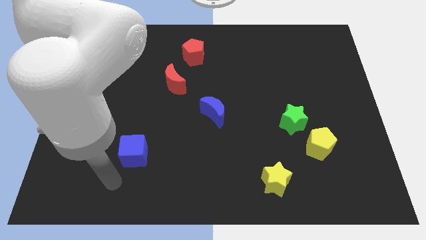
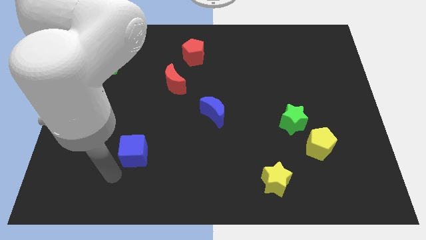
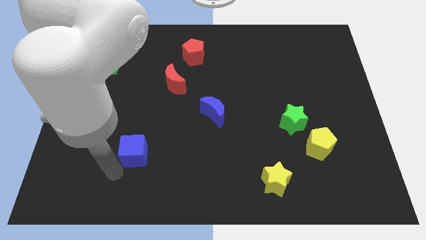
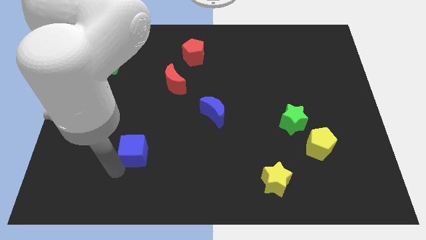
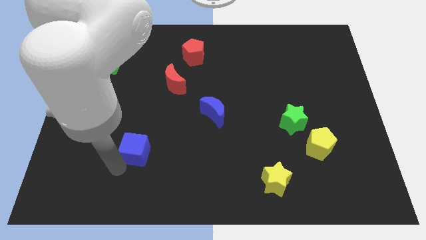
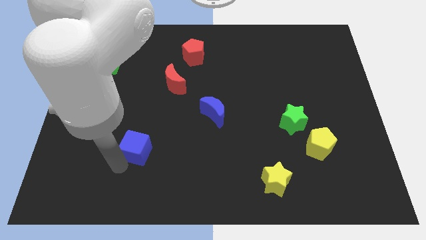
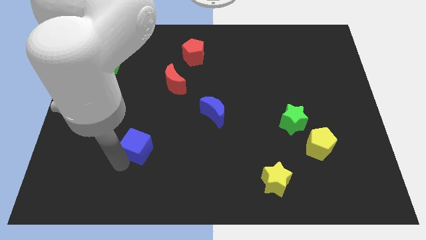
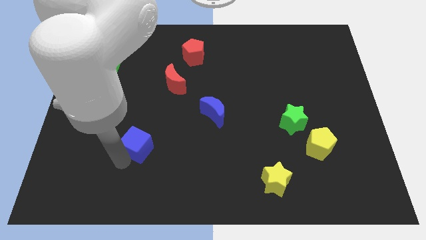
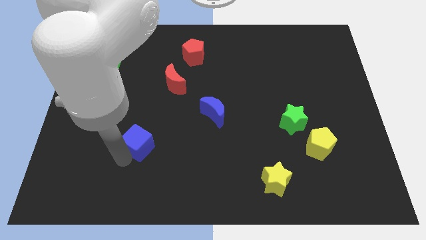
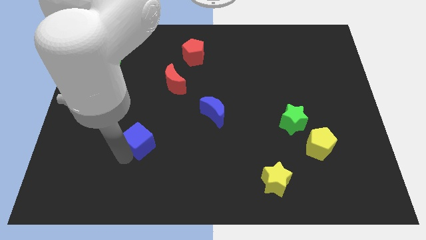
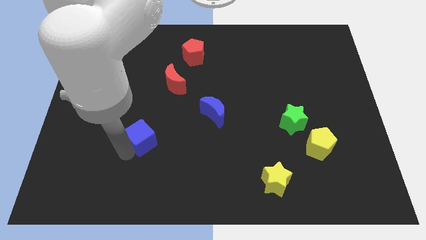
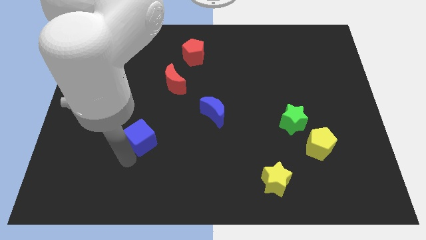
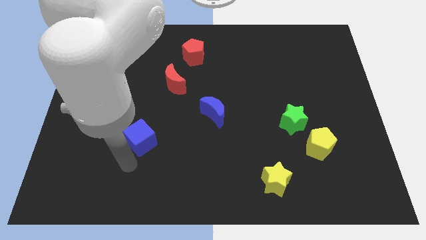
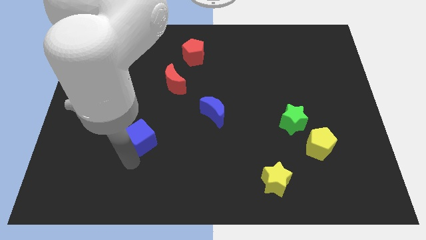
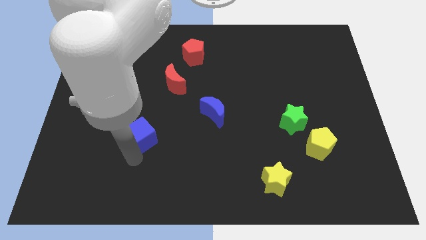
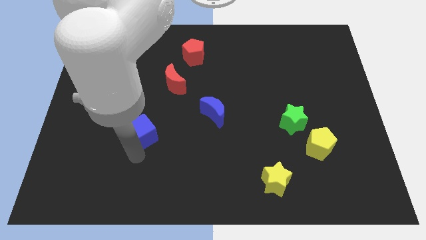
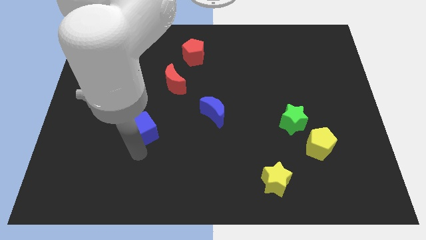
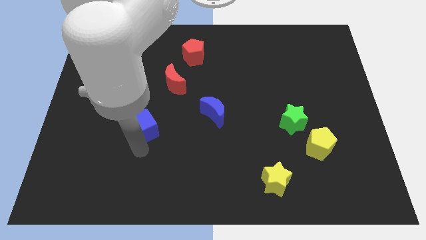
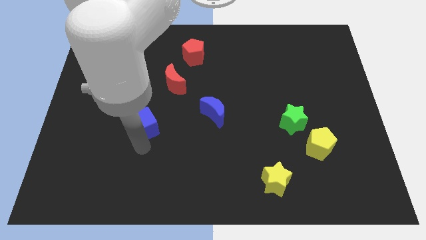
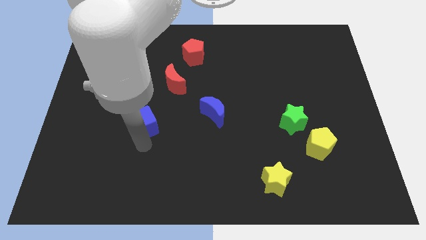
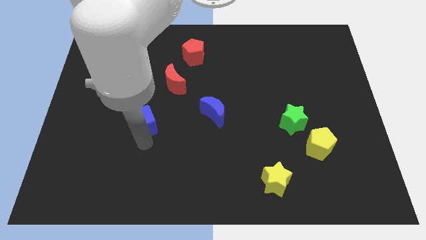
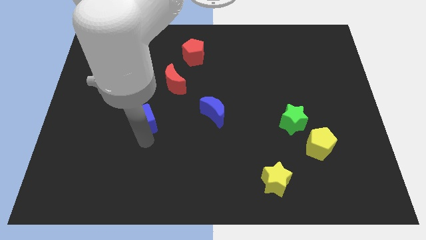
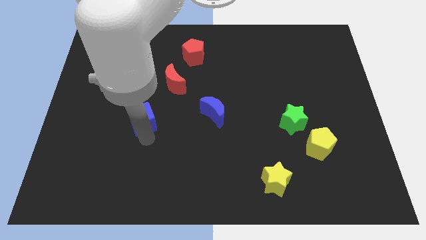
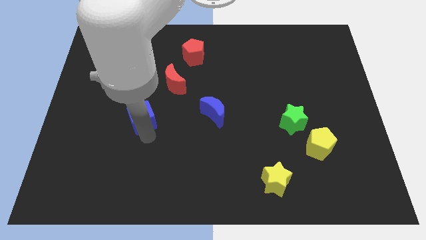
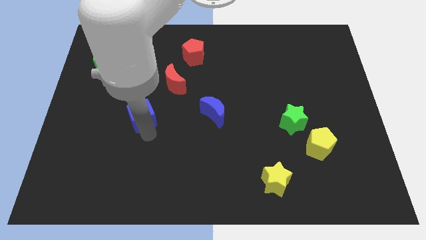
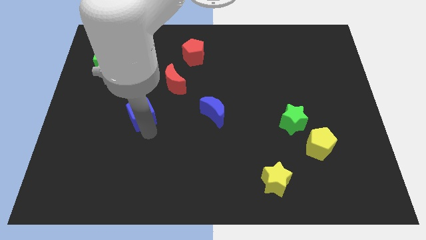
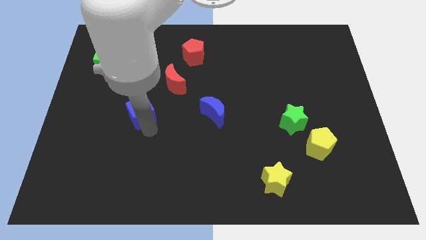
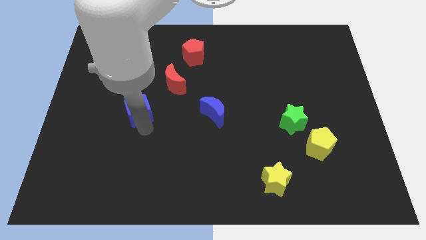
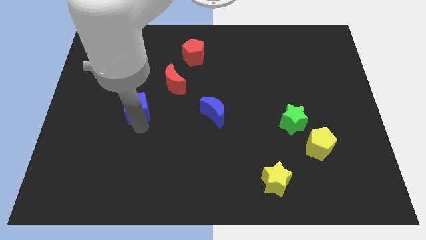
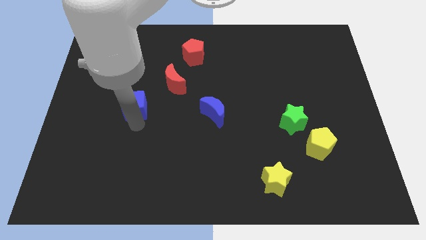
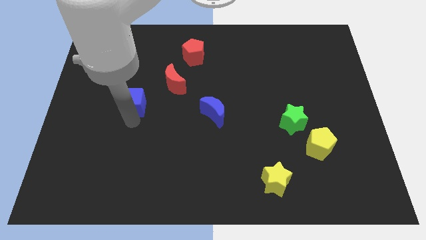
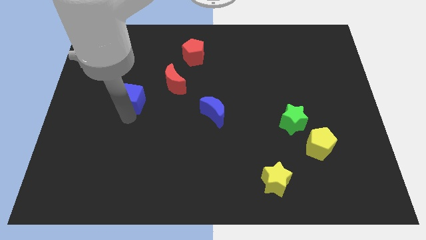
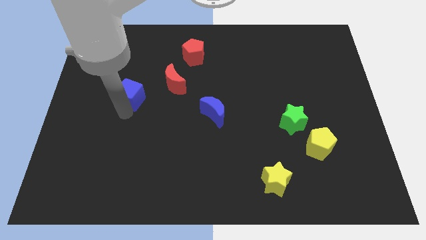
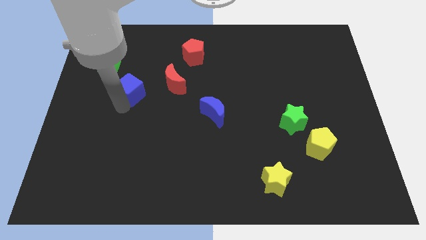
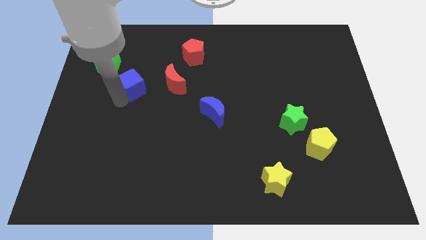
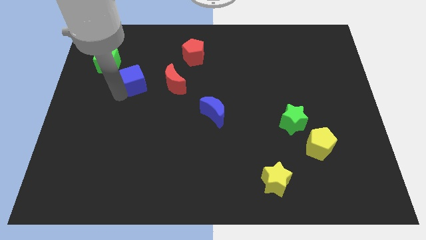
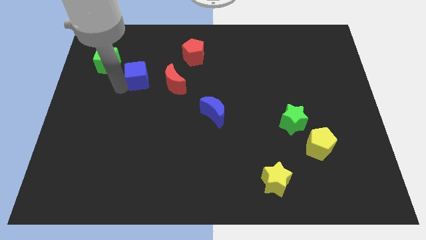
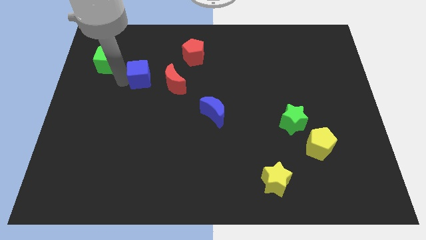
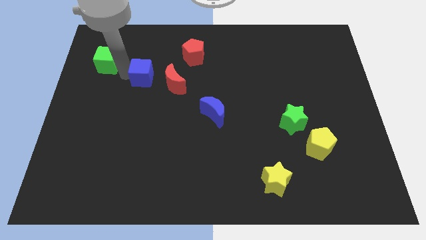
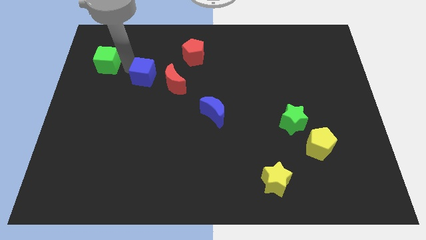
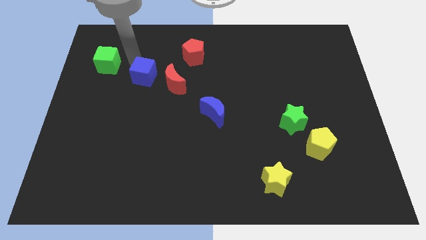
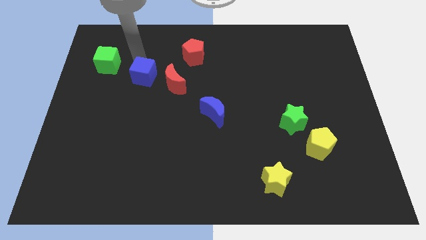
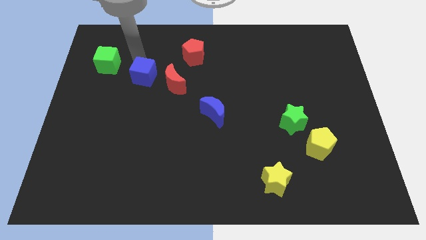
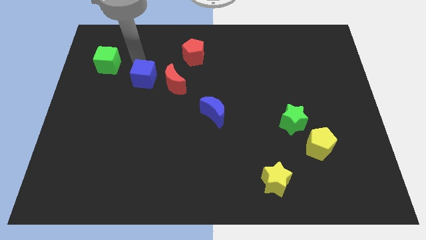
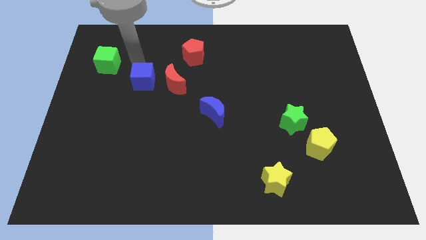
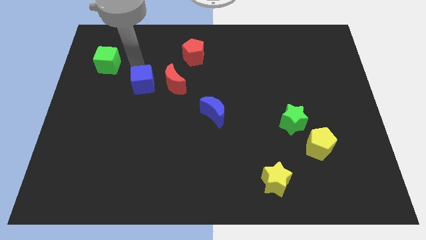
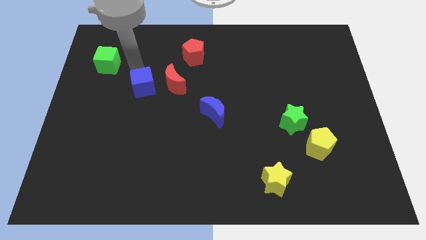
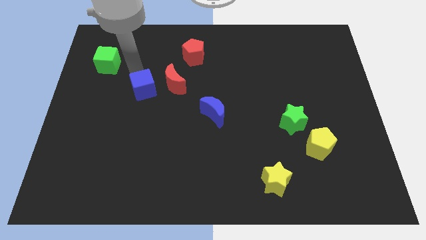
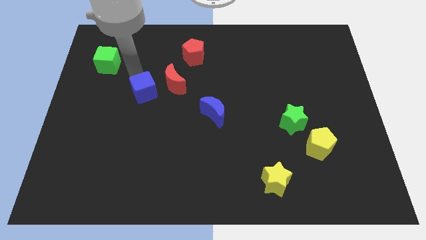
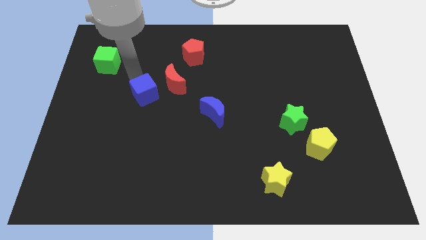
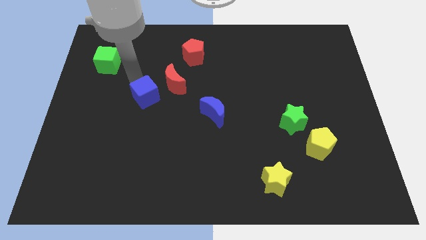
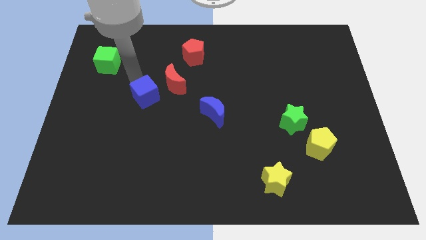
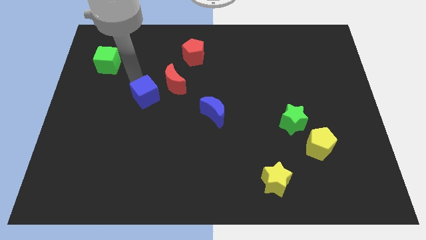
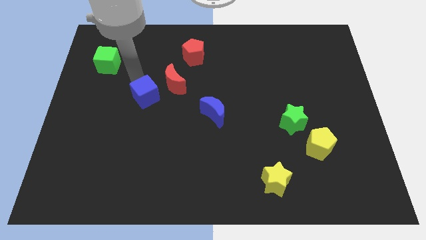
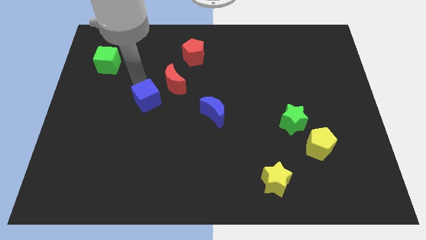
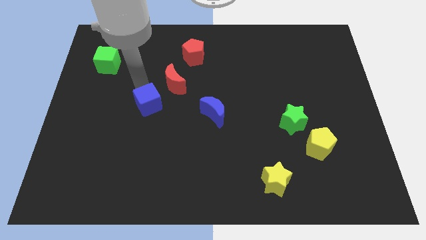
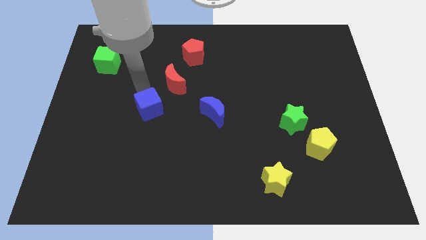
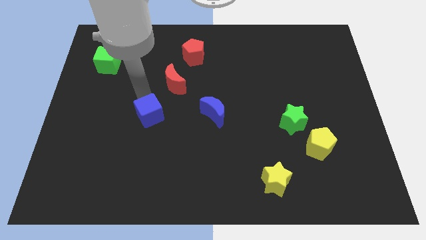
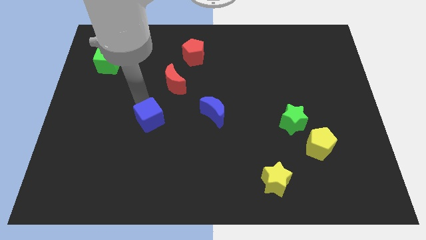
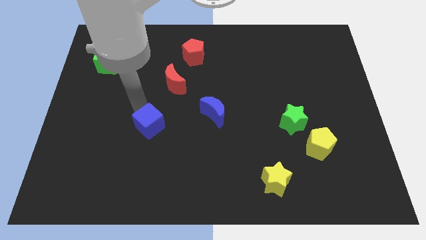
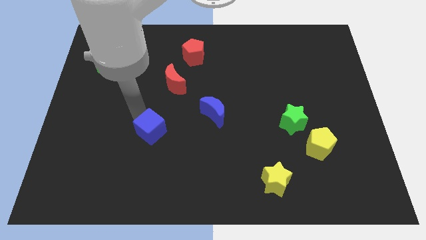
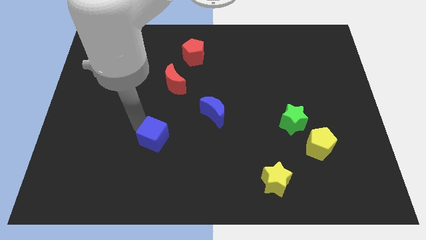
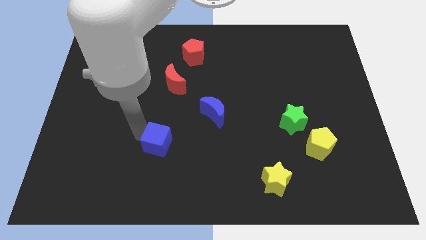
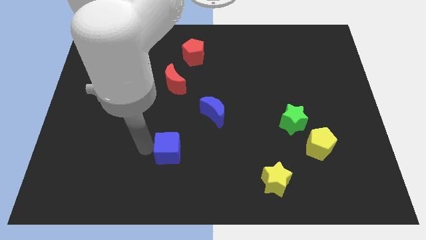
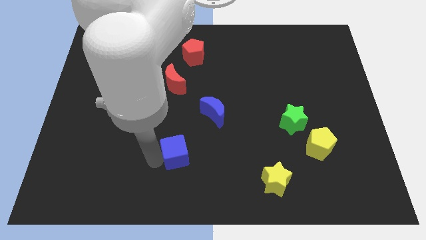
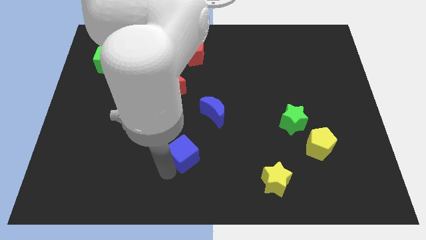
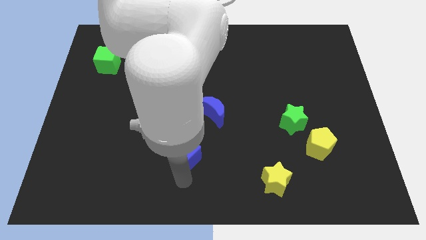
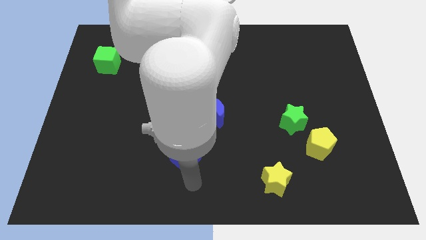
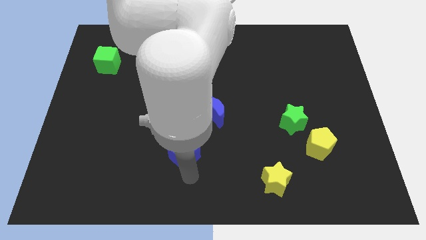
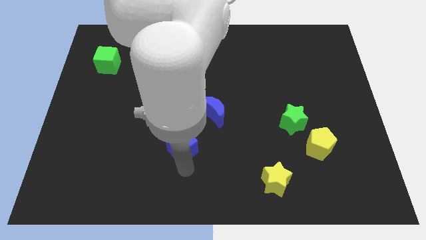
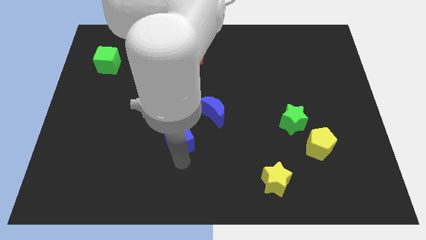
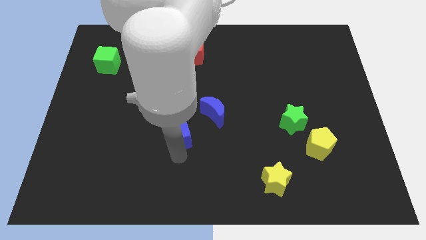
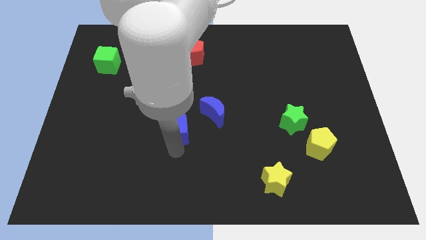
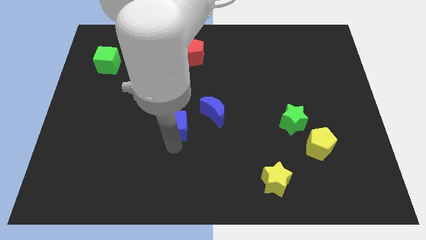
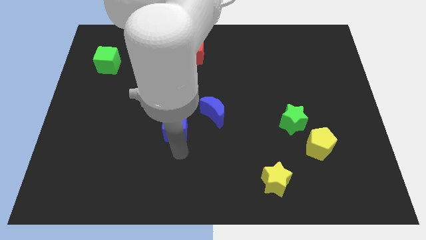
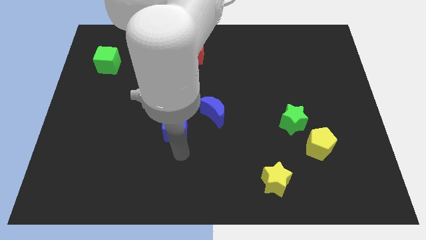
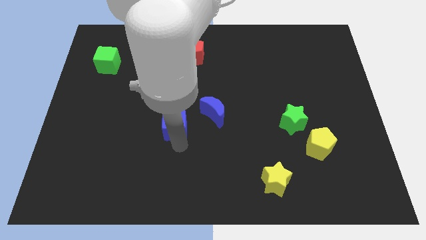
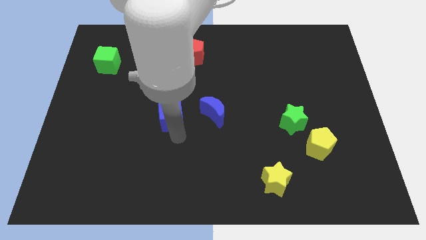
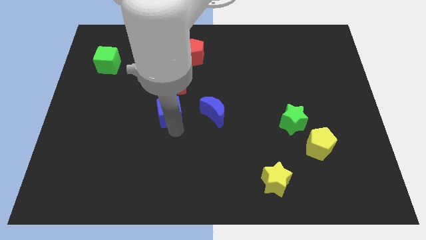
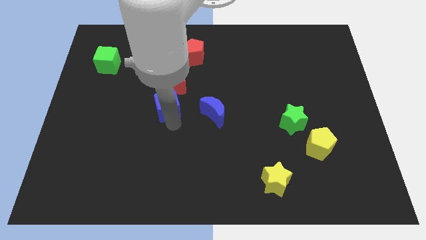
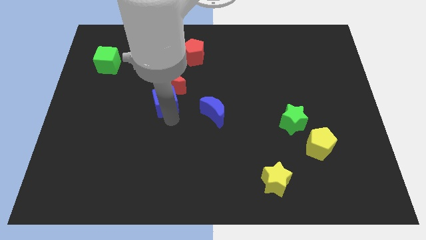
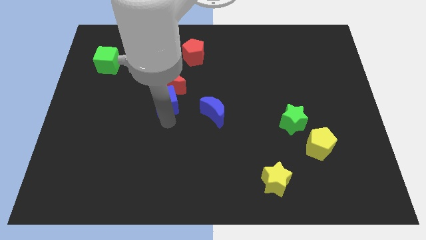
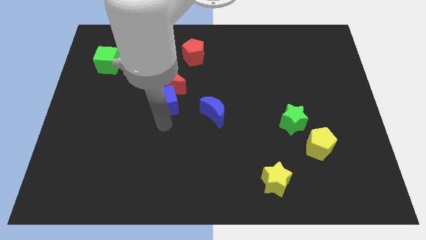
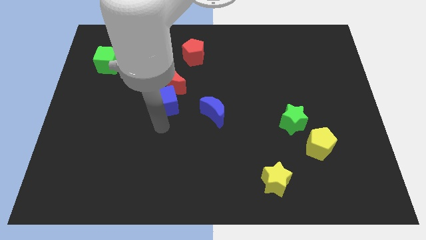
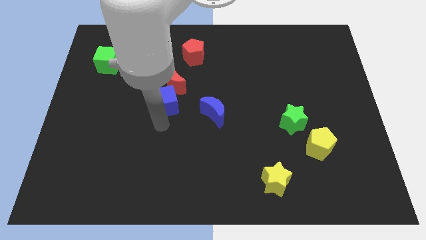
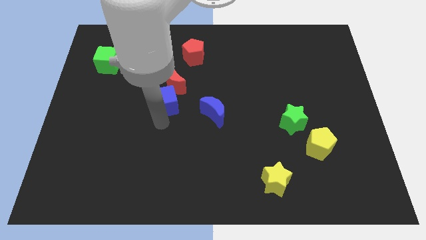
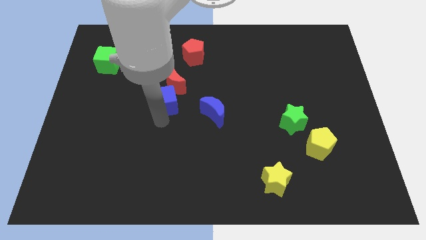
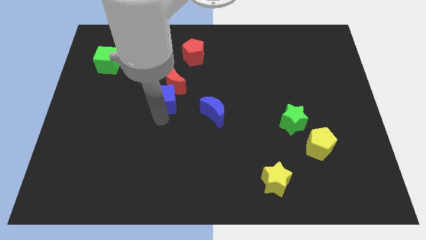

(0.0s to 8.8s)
push the blue cube close to the red moon
